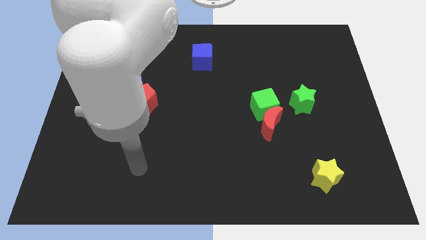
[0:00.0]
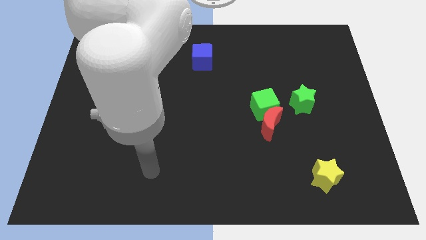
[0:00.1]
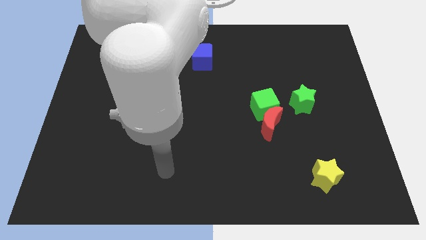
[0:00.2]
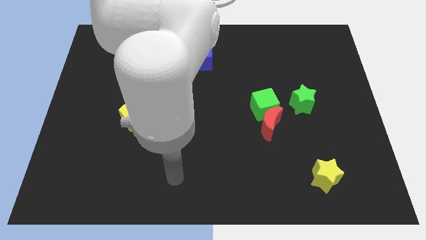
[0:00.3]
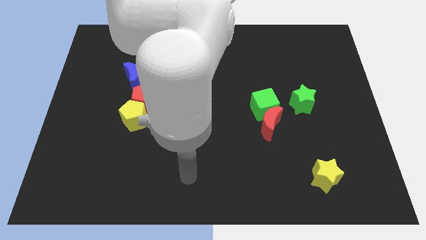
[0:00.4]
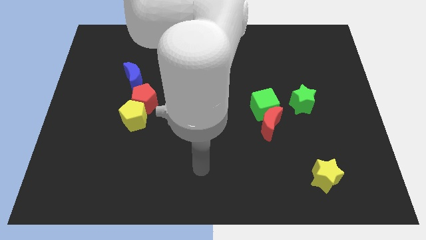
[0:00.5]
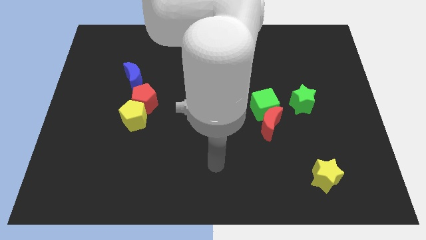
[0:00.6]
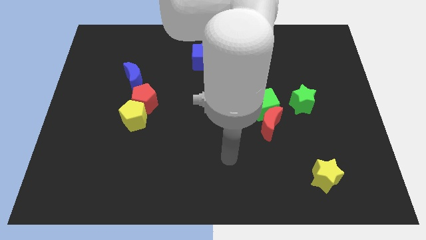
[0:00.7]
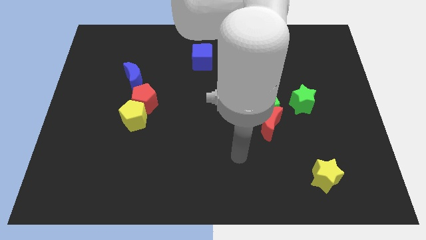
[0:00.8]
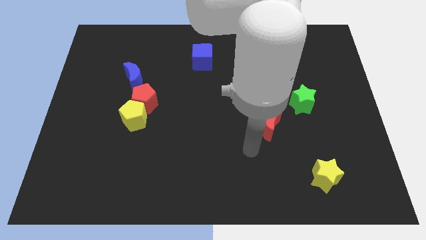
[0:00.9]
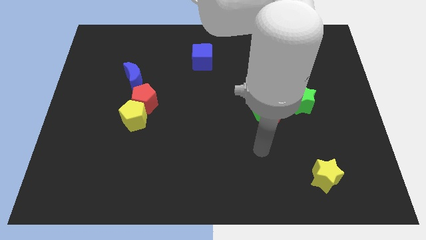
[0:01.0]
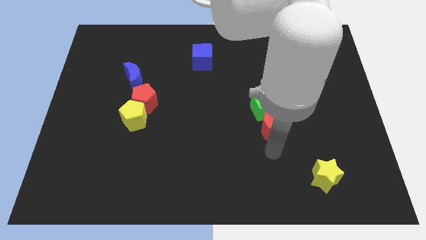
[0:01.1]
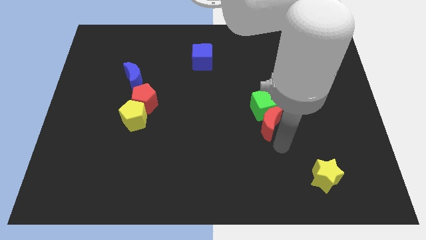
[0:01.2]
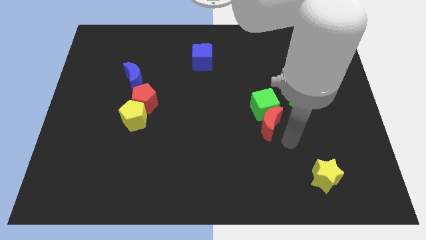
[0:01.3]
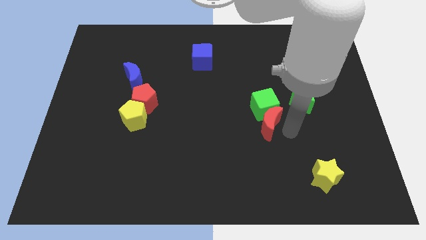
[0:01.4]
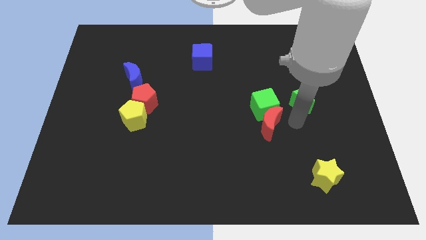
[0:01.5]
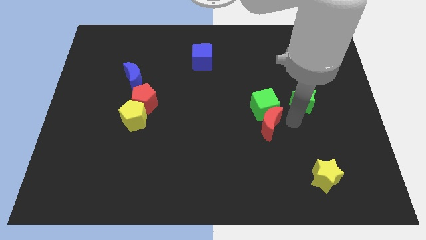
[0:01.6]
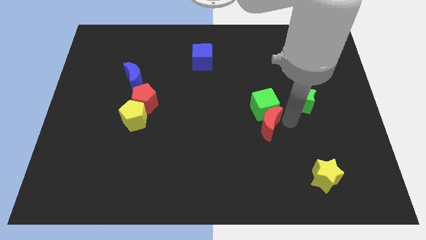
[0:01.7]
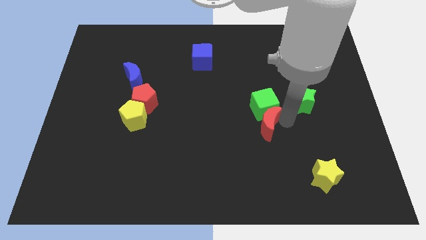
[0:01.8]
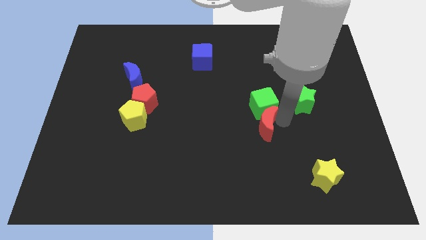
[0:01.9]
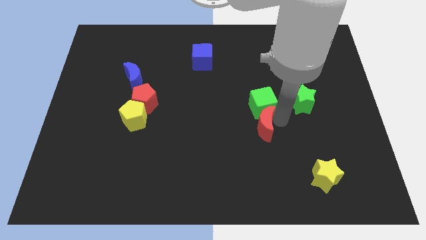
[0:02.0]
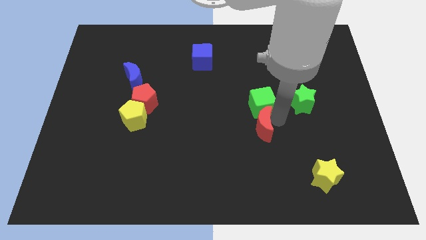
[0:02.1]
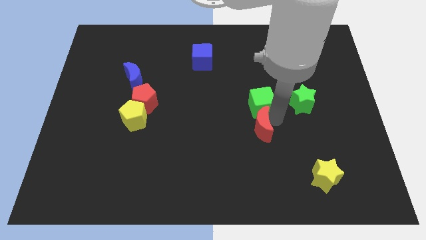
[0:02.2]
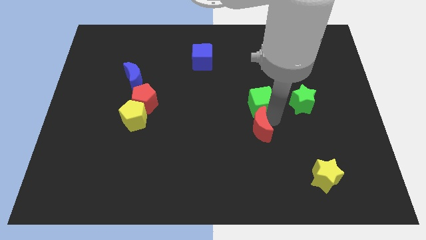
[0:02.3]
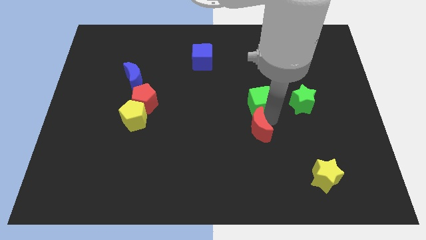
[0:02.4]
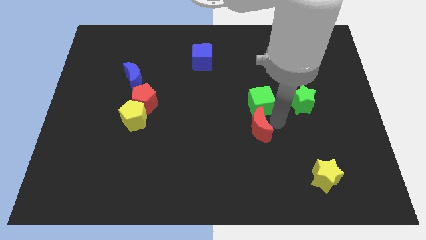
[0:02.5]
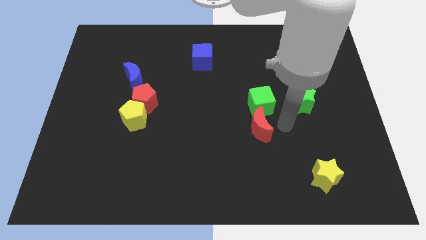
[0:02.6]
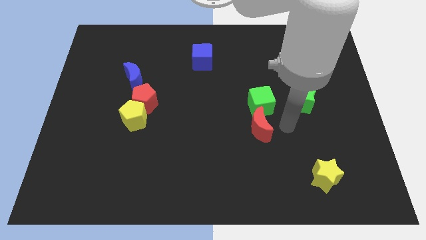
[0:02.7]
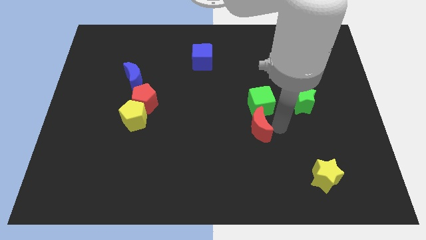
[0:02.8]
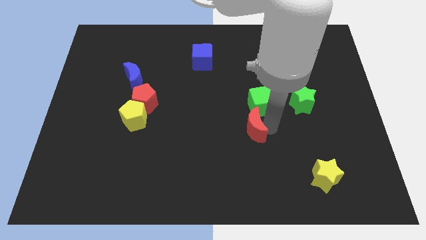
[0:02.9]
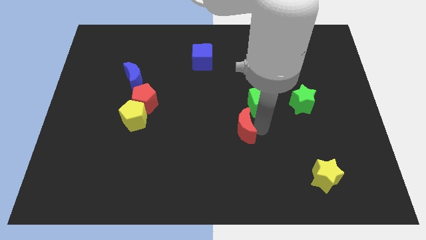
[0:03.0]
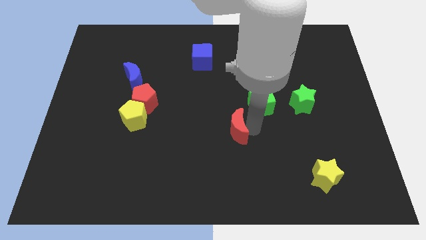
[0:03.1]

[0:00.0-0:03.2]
push the red moon to the left slightly

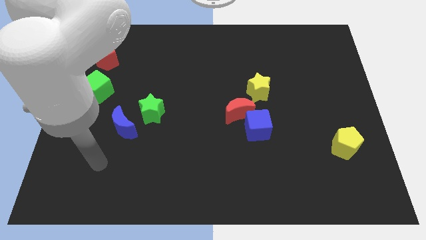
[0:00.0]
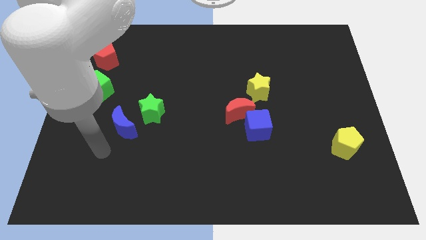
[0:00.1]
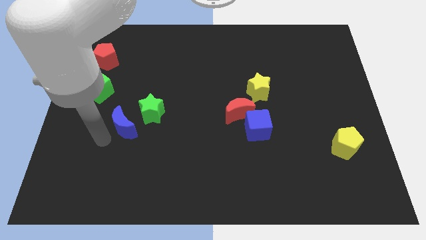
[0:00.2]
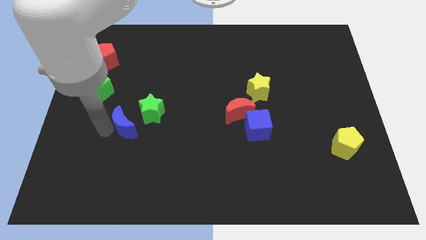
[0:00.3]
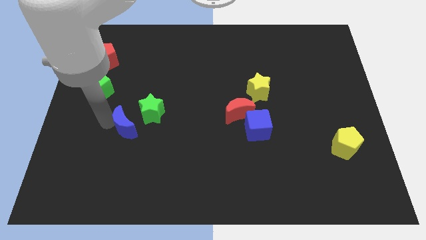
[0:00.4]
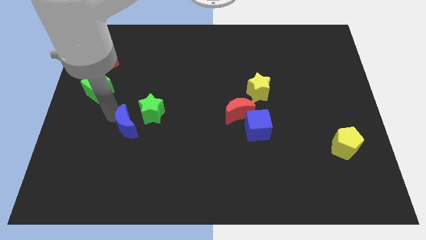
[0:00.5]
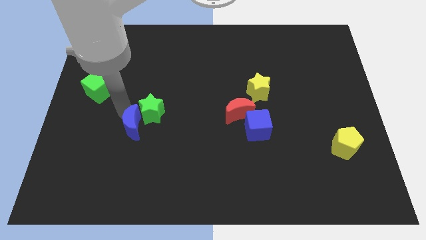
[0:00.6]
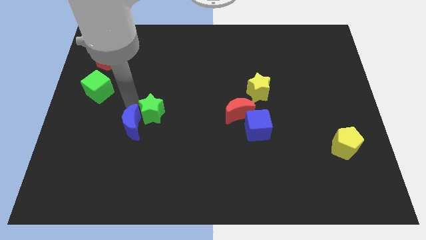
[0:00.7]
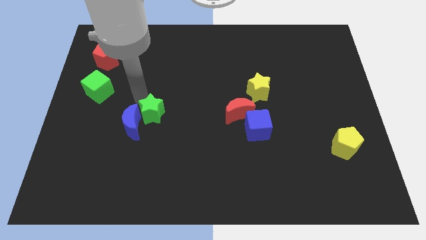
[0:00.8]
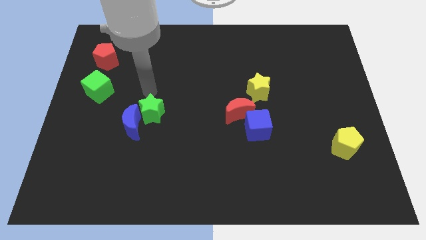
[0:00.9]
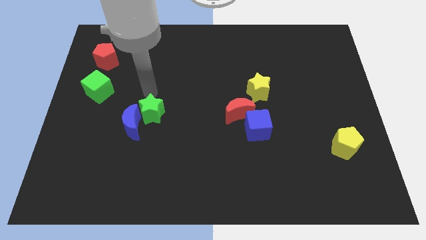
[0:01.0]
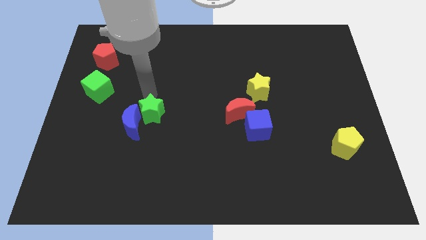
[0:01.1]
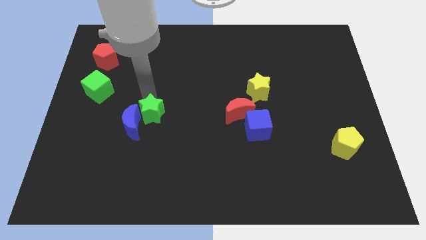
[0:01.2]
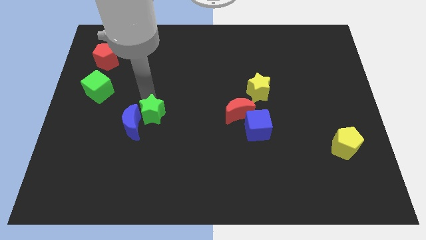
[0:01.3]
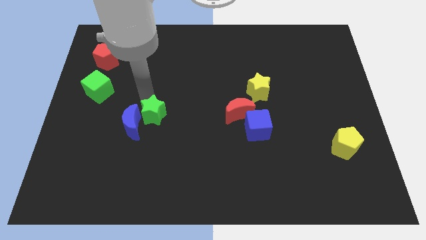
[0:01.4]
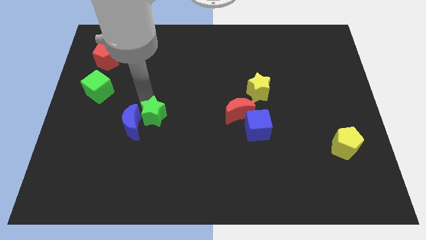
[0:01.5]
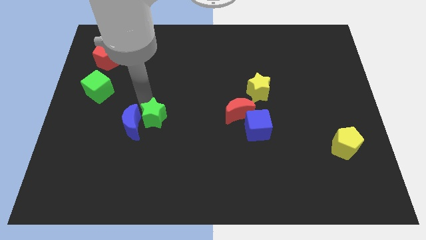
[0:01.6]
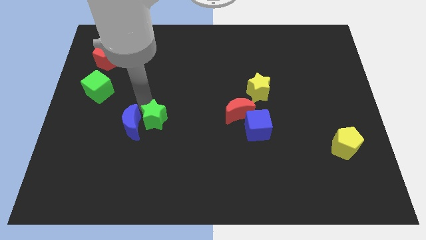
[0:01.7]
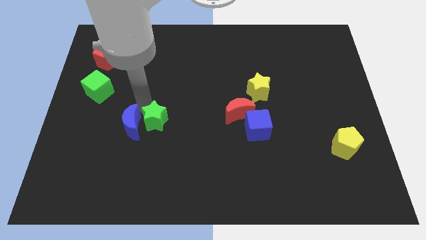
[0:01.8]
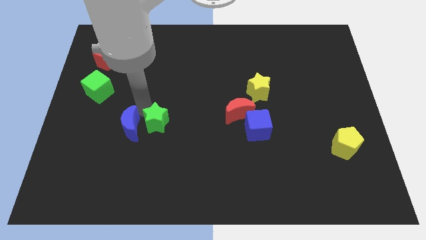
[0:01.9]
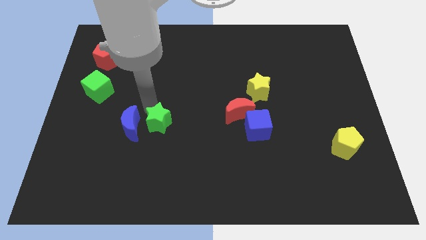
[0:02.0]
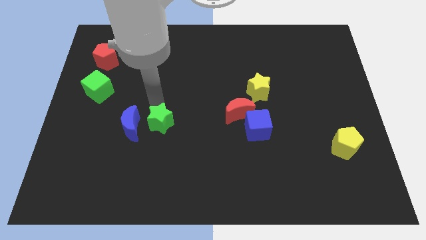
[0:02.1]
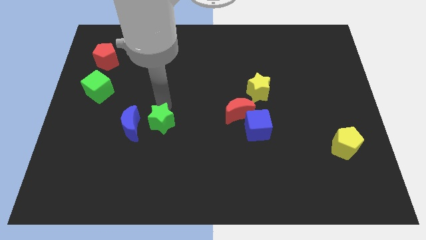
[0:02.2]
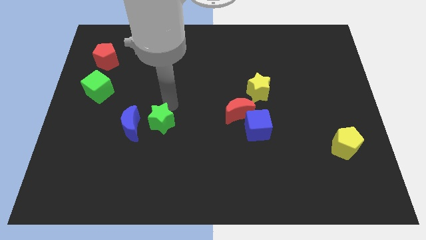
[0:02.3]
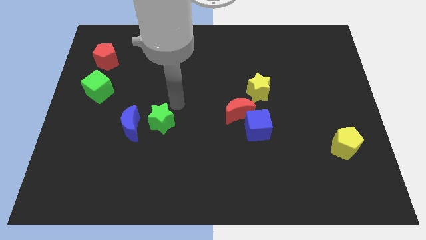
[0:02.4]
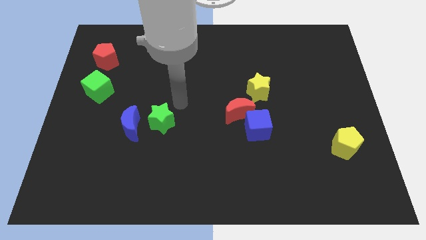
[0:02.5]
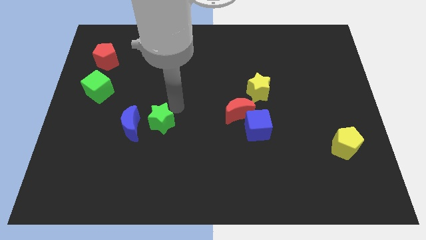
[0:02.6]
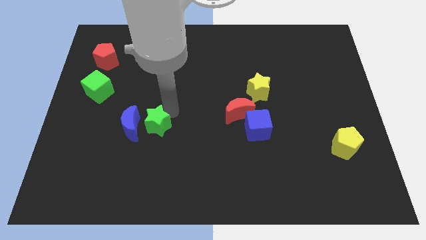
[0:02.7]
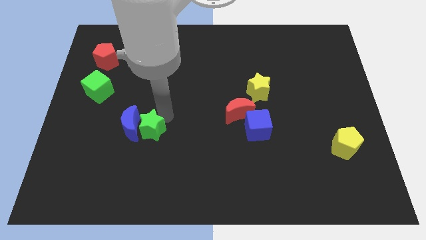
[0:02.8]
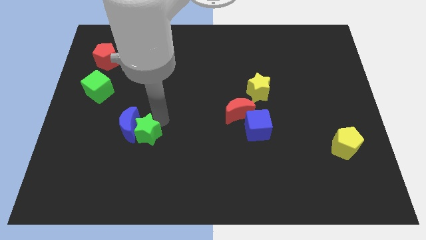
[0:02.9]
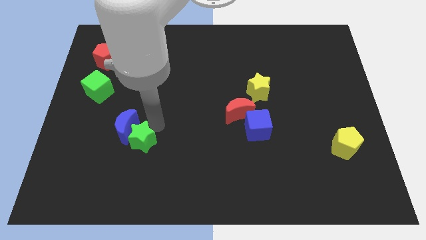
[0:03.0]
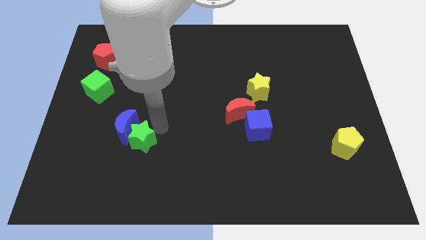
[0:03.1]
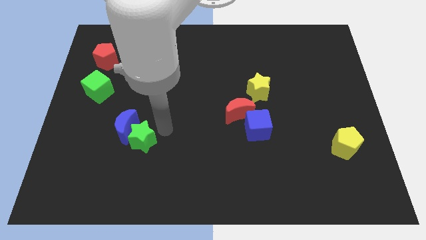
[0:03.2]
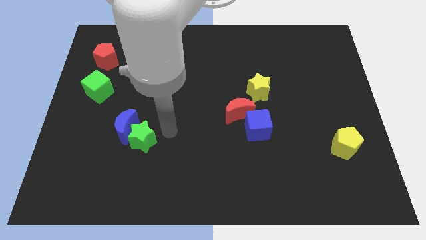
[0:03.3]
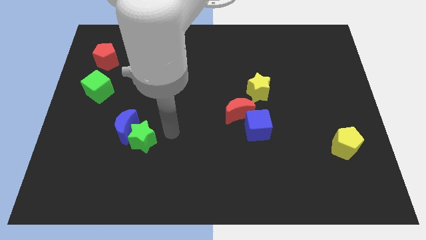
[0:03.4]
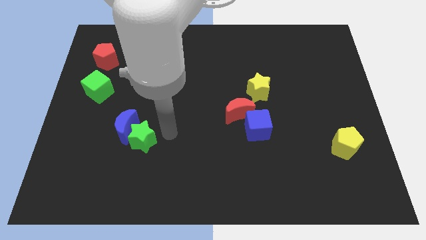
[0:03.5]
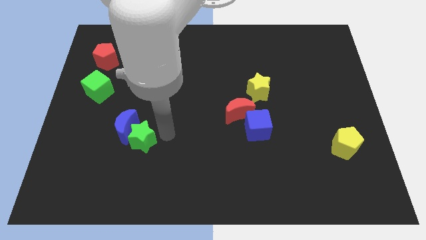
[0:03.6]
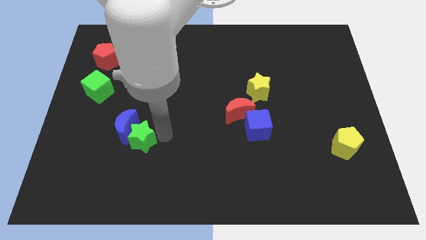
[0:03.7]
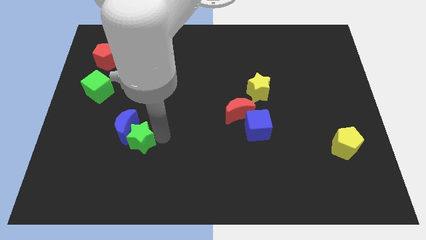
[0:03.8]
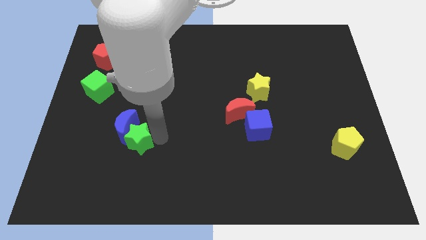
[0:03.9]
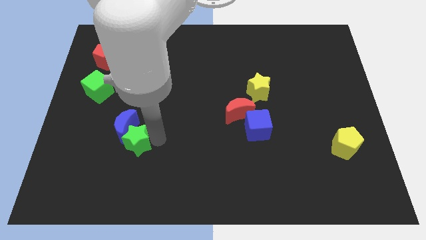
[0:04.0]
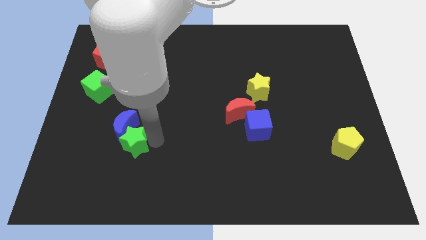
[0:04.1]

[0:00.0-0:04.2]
slightly move the green star diagonally downwards and left

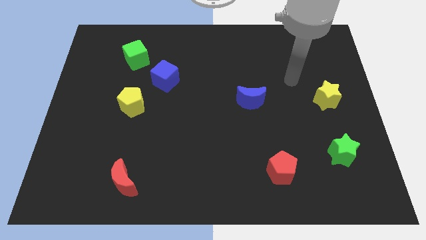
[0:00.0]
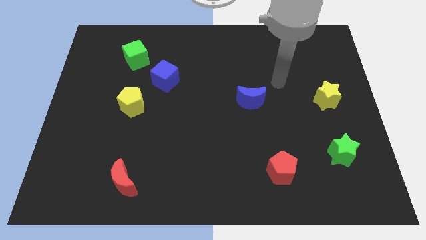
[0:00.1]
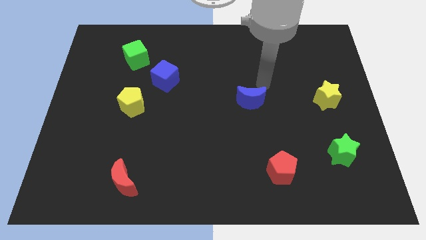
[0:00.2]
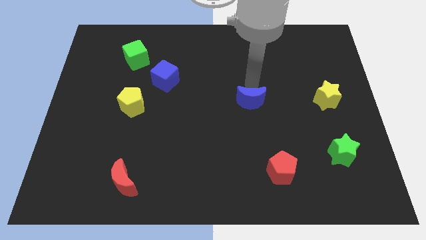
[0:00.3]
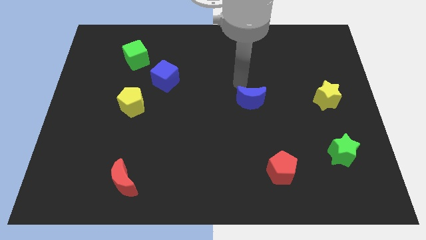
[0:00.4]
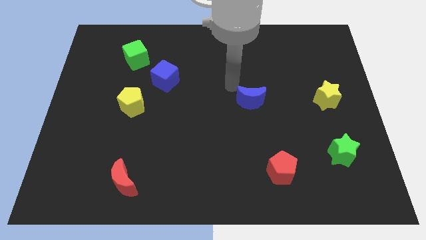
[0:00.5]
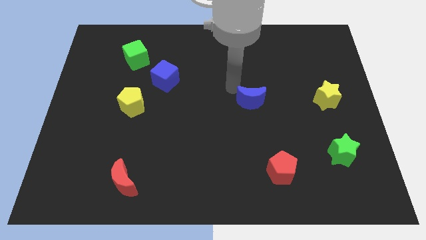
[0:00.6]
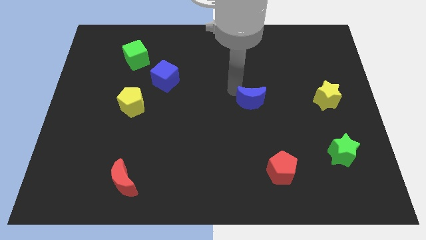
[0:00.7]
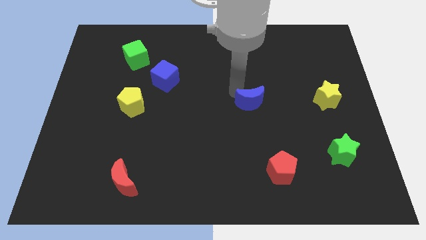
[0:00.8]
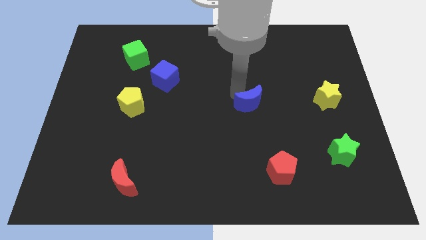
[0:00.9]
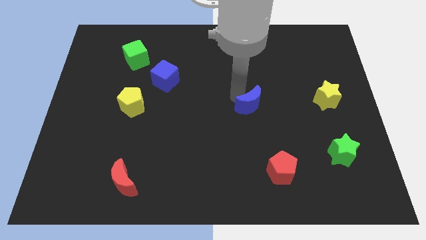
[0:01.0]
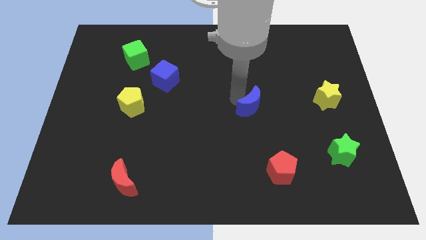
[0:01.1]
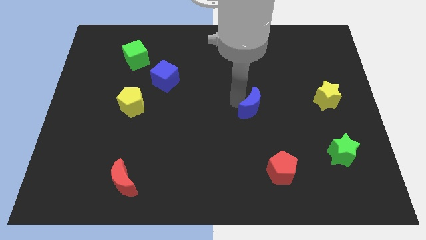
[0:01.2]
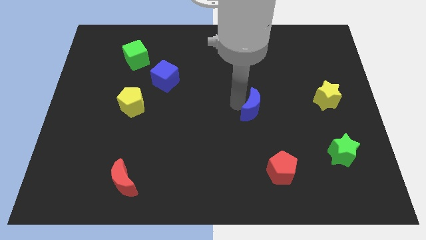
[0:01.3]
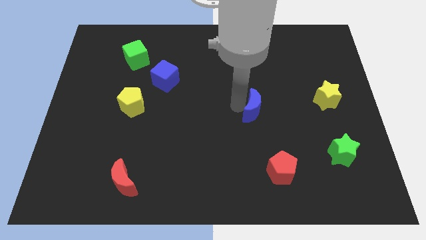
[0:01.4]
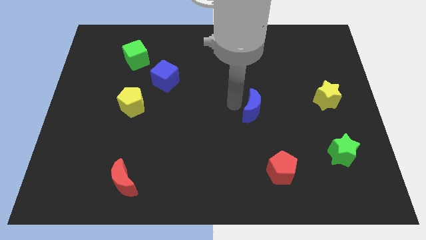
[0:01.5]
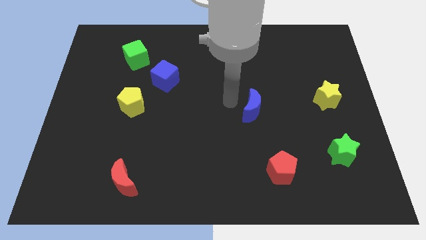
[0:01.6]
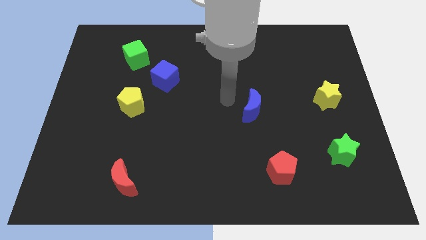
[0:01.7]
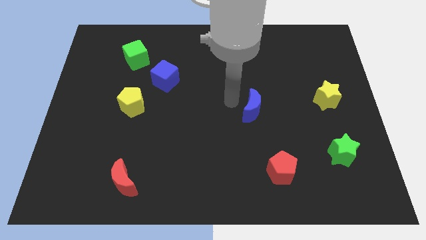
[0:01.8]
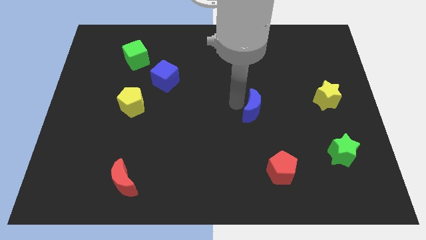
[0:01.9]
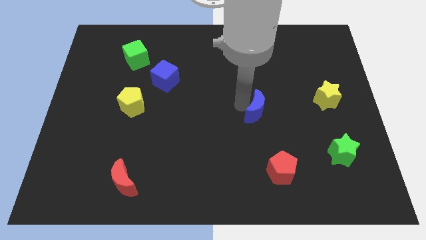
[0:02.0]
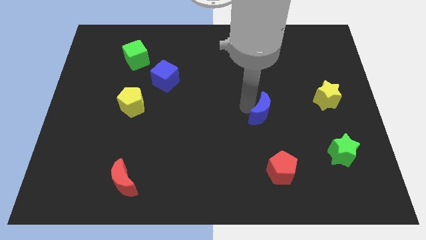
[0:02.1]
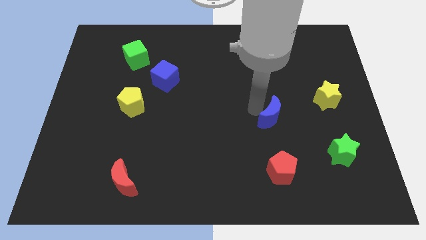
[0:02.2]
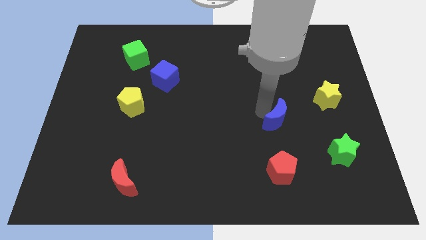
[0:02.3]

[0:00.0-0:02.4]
push the blue moon a bit diagonally downwards and to the right
